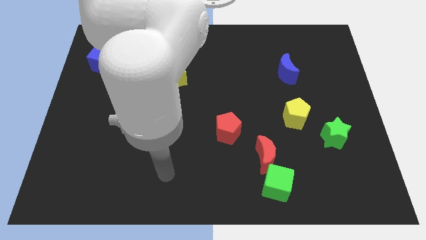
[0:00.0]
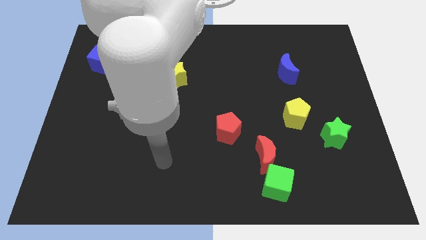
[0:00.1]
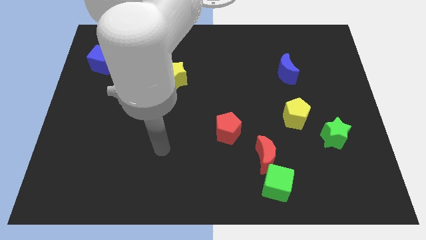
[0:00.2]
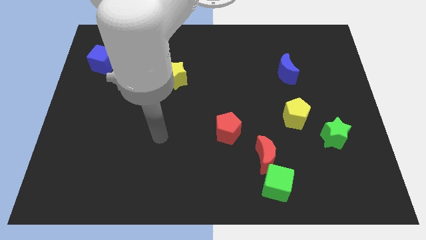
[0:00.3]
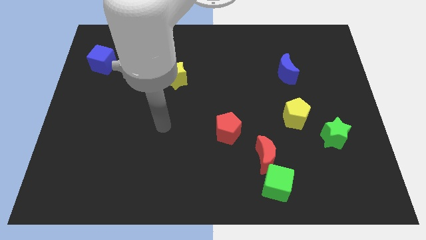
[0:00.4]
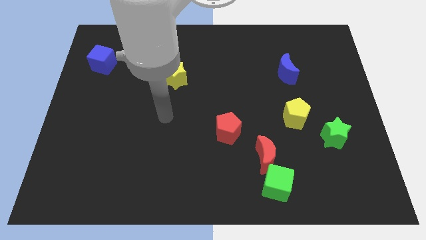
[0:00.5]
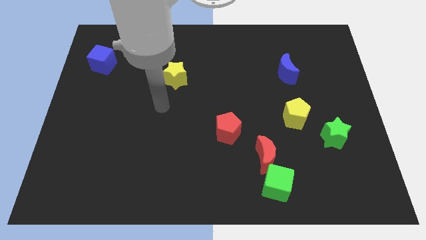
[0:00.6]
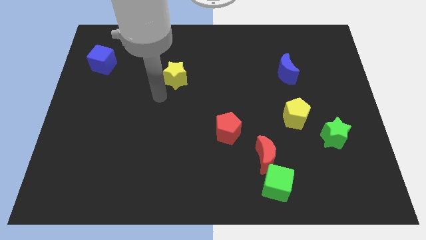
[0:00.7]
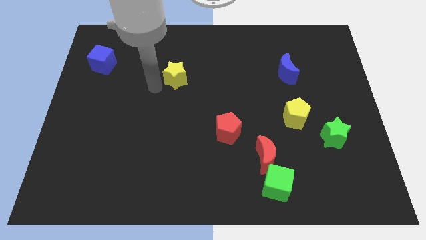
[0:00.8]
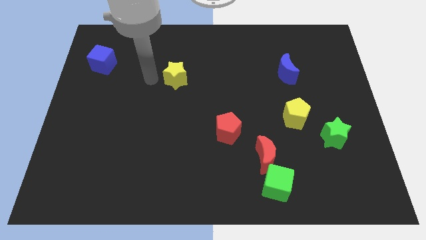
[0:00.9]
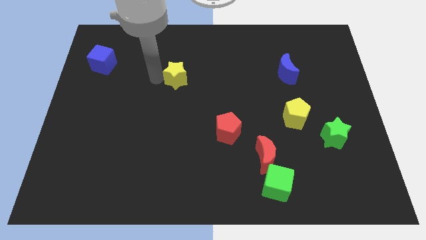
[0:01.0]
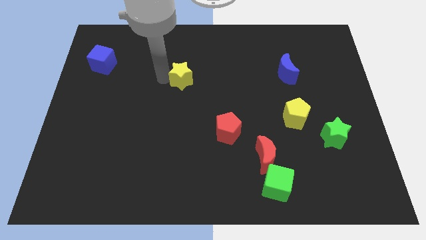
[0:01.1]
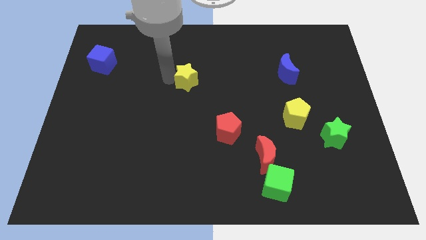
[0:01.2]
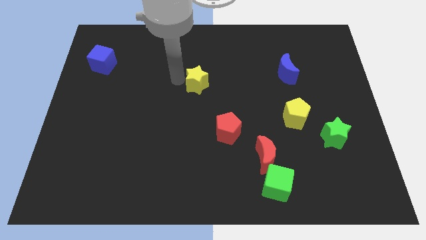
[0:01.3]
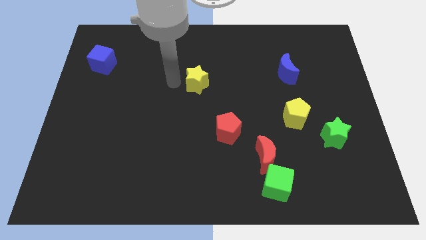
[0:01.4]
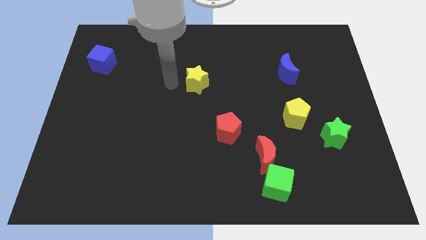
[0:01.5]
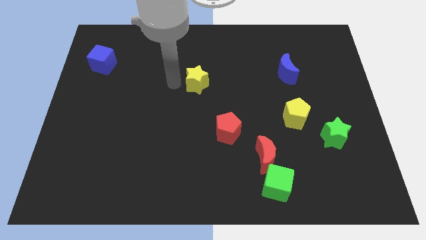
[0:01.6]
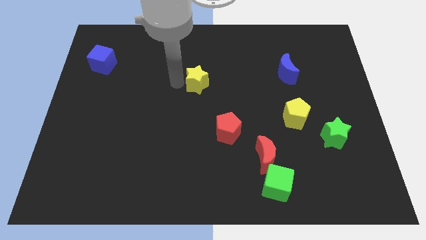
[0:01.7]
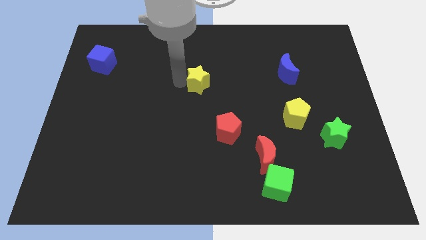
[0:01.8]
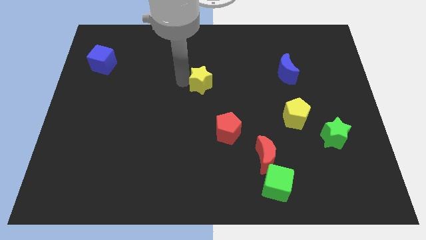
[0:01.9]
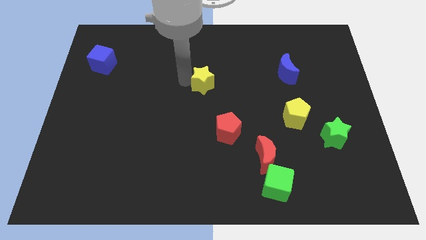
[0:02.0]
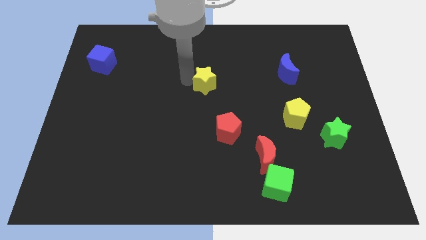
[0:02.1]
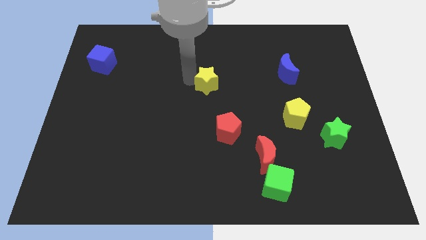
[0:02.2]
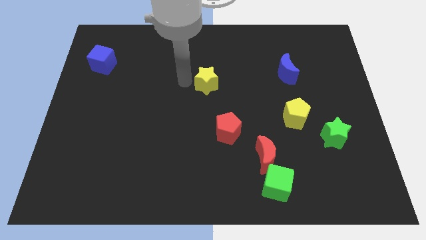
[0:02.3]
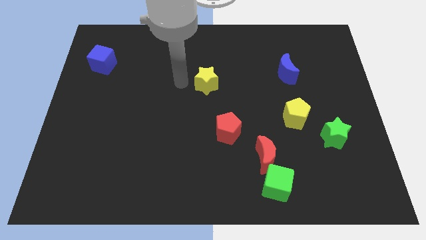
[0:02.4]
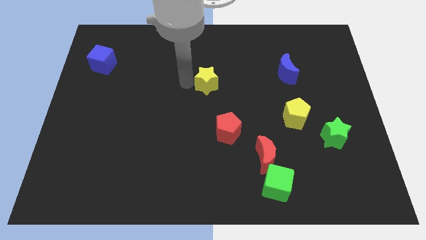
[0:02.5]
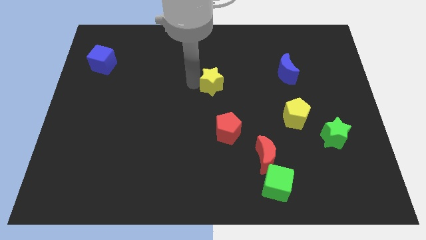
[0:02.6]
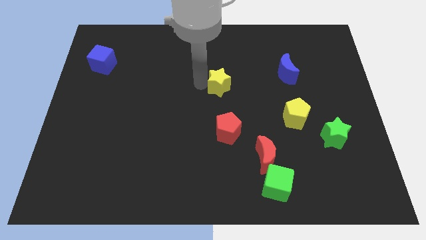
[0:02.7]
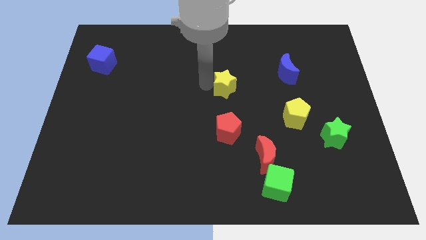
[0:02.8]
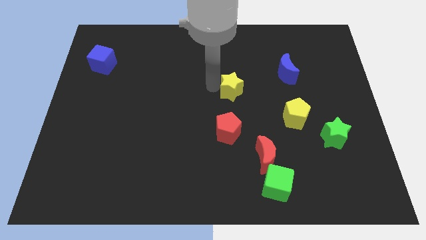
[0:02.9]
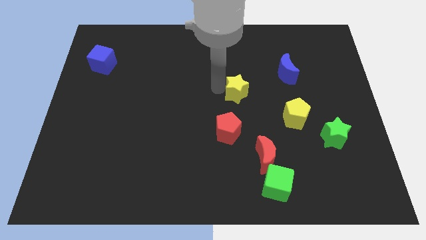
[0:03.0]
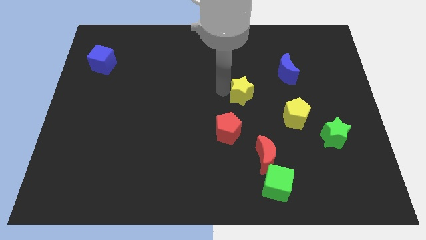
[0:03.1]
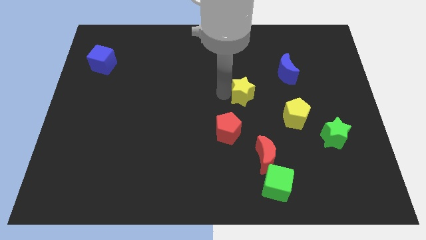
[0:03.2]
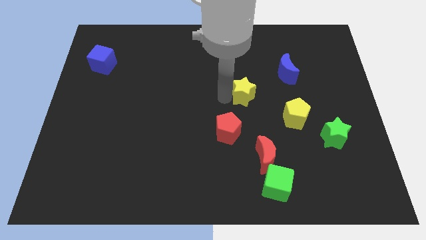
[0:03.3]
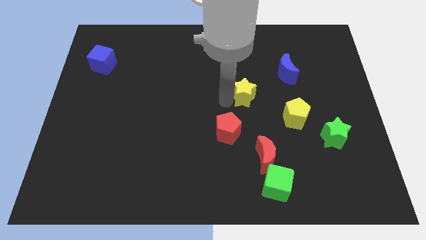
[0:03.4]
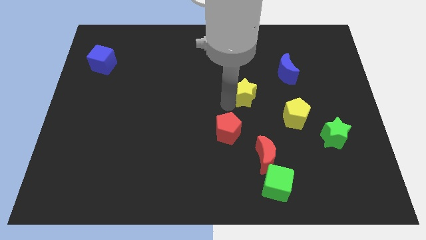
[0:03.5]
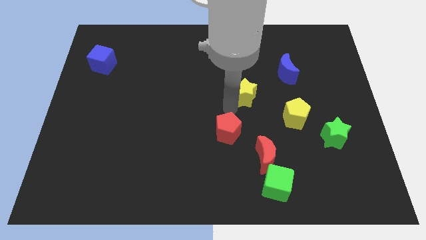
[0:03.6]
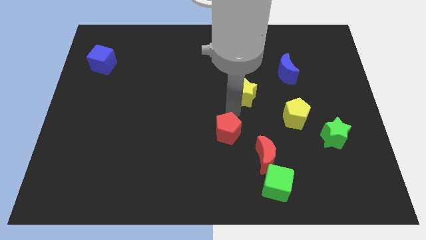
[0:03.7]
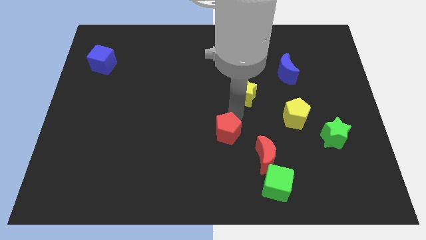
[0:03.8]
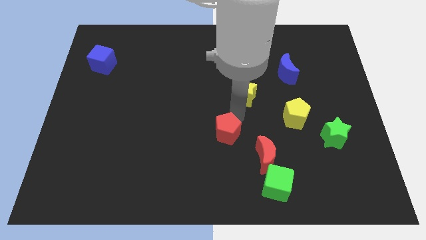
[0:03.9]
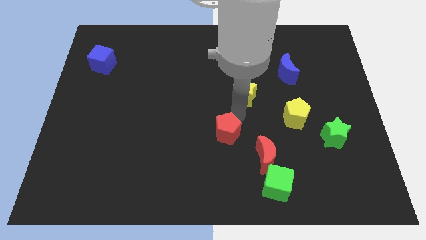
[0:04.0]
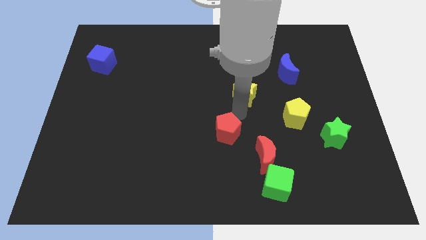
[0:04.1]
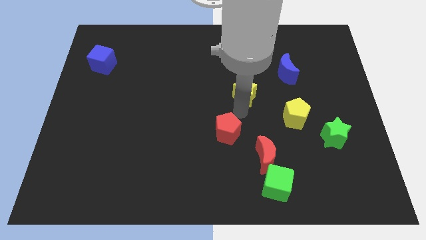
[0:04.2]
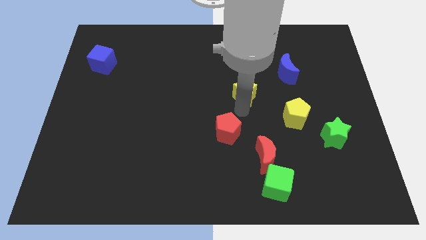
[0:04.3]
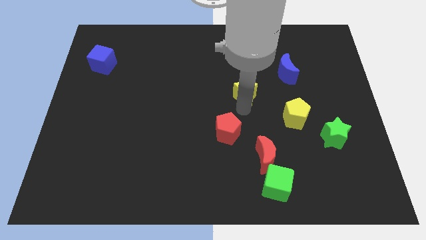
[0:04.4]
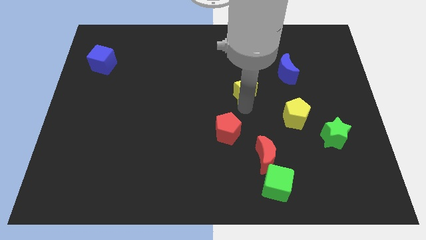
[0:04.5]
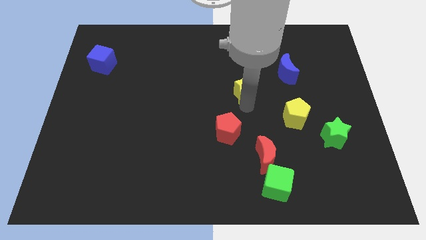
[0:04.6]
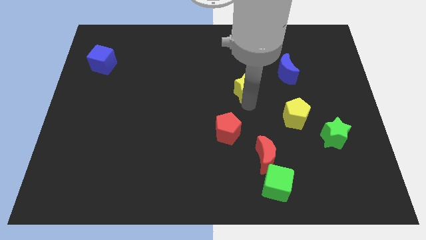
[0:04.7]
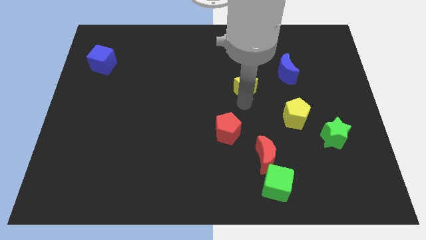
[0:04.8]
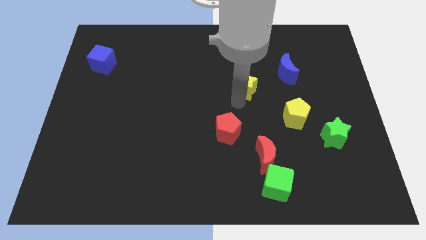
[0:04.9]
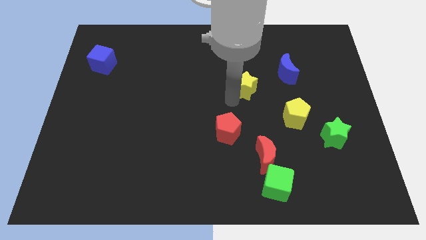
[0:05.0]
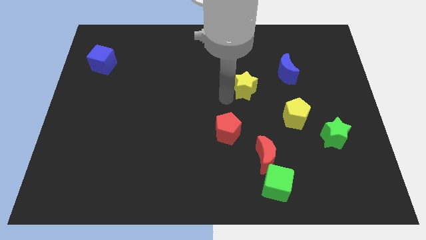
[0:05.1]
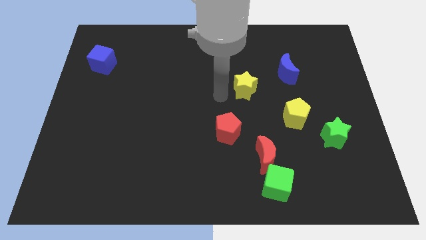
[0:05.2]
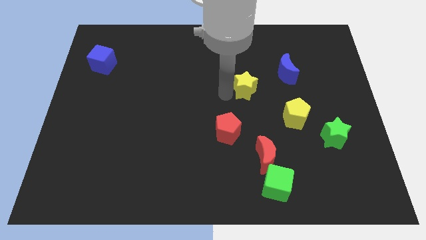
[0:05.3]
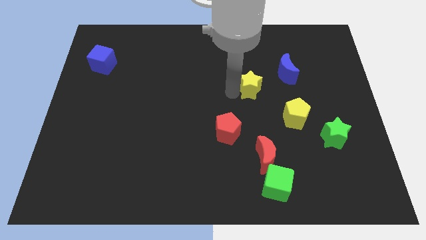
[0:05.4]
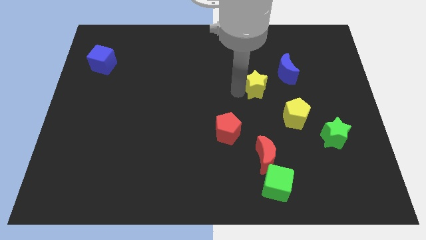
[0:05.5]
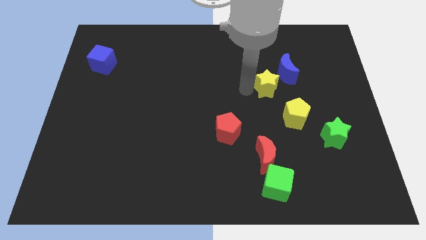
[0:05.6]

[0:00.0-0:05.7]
push the yellow star right

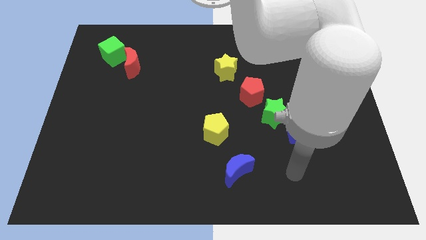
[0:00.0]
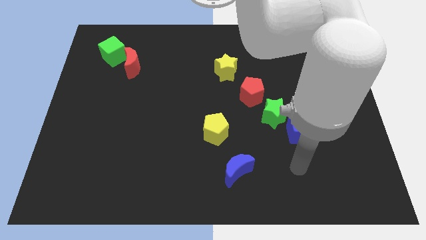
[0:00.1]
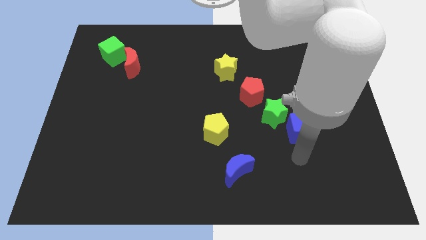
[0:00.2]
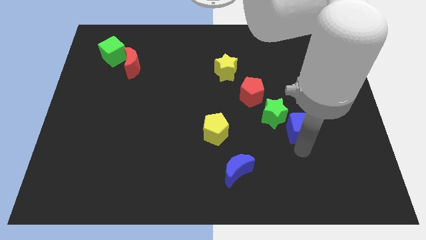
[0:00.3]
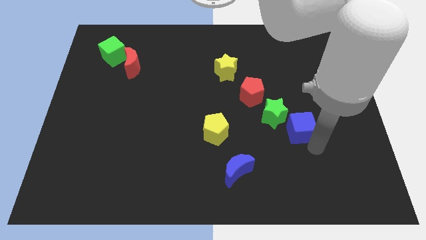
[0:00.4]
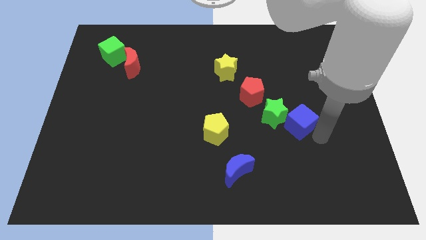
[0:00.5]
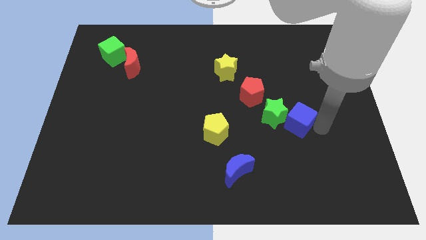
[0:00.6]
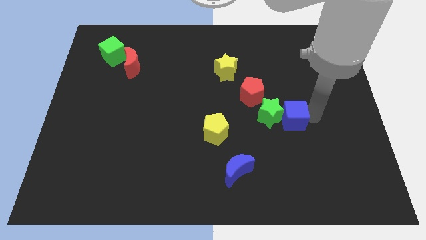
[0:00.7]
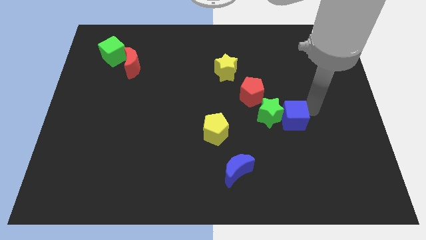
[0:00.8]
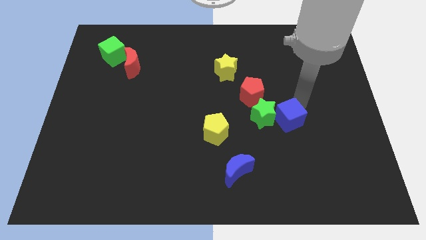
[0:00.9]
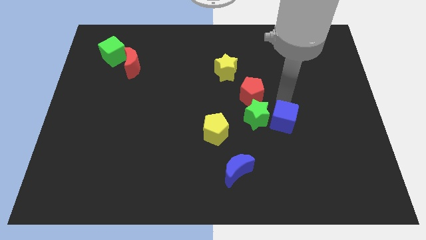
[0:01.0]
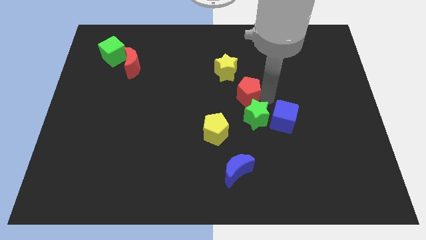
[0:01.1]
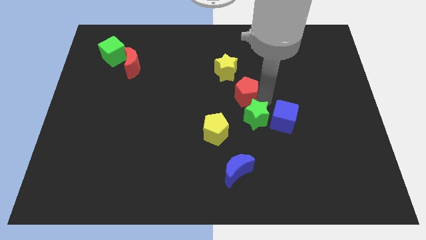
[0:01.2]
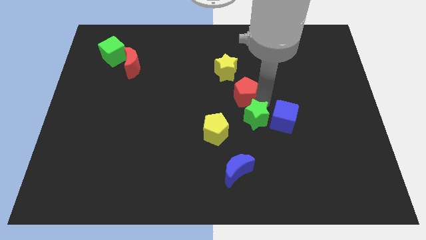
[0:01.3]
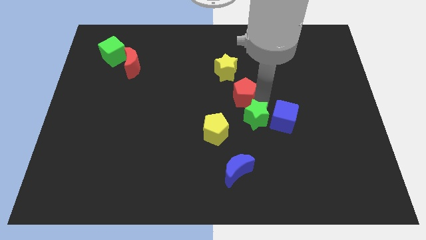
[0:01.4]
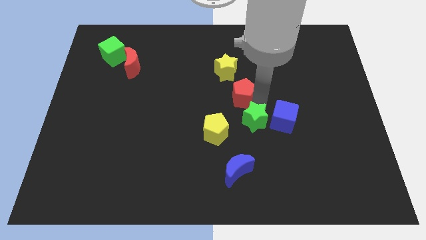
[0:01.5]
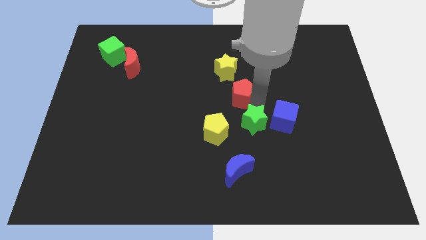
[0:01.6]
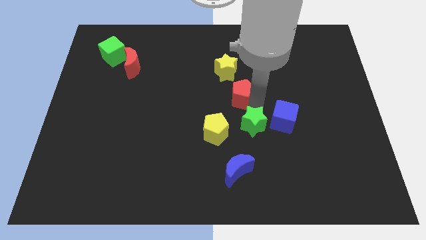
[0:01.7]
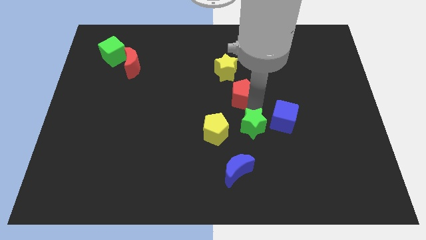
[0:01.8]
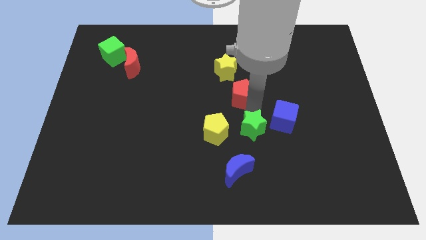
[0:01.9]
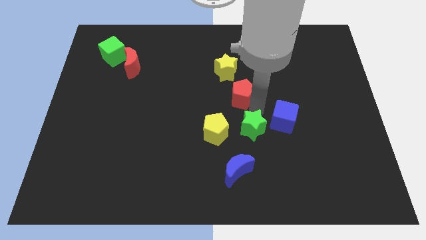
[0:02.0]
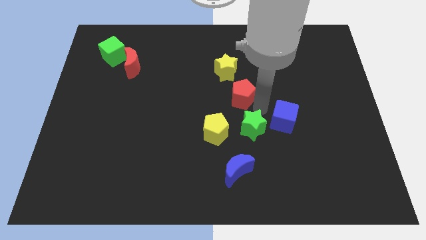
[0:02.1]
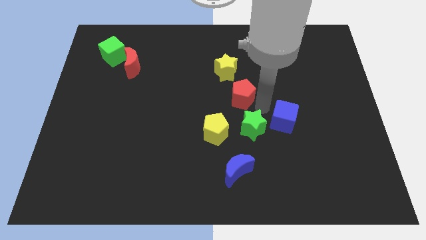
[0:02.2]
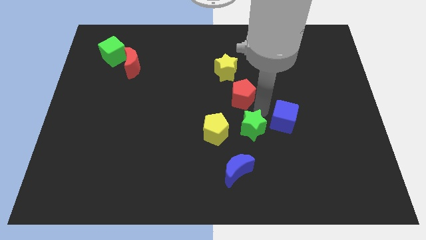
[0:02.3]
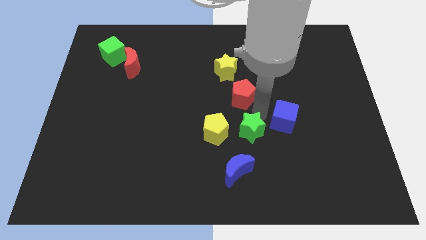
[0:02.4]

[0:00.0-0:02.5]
push the green star down and then left a little
